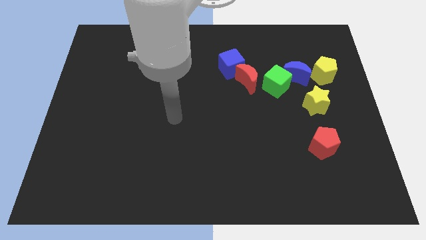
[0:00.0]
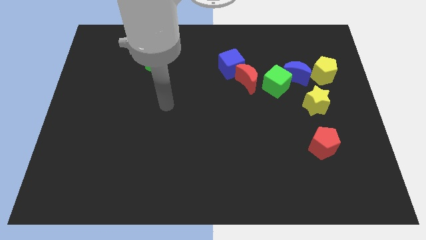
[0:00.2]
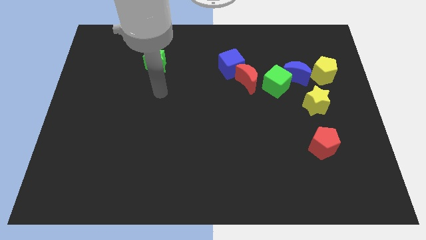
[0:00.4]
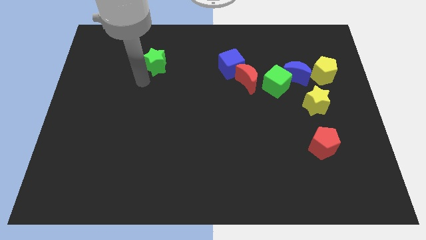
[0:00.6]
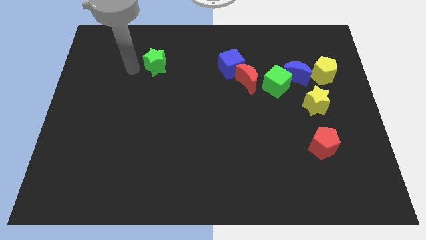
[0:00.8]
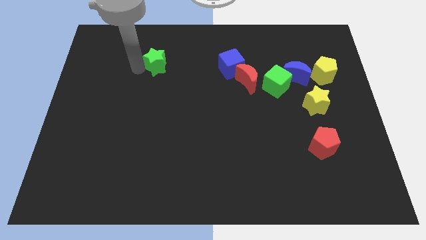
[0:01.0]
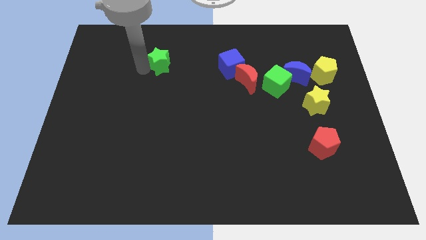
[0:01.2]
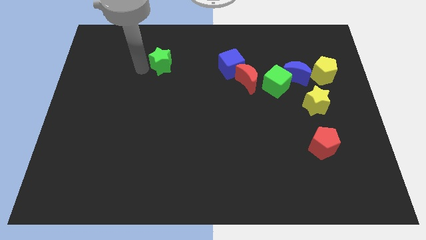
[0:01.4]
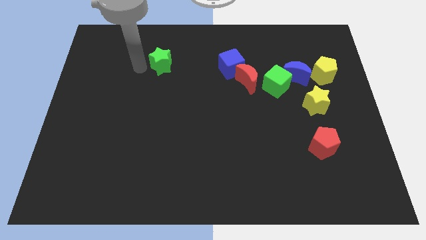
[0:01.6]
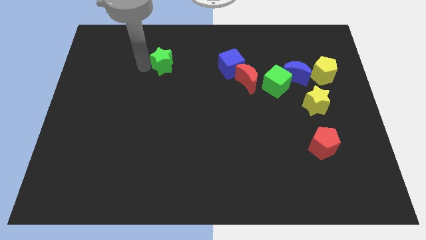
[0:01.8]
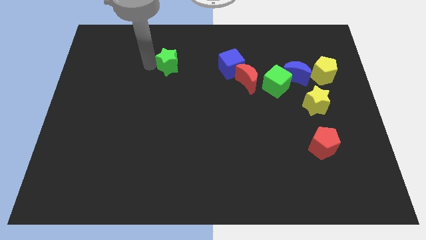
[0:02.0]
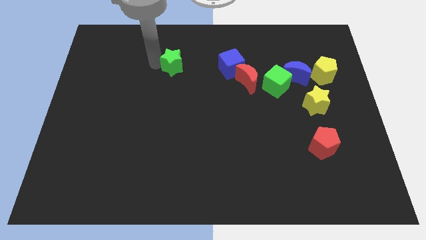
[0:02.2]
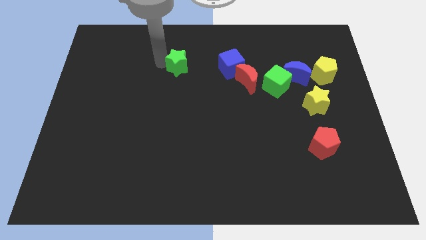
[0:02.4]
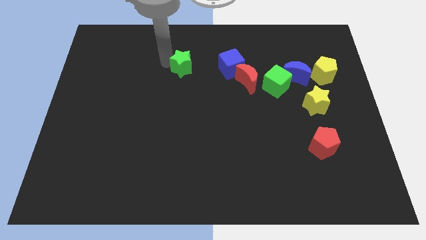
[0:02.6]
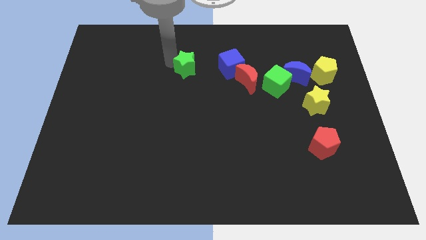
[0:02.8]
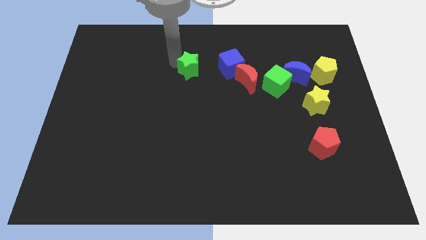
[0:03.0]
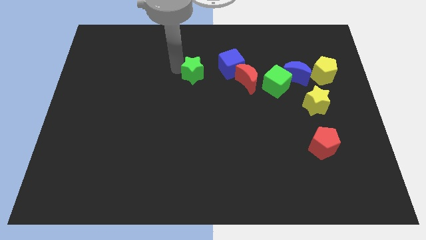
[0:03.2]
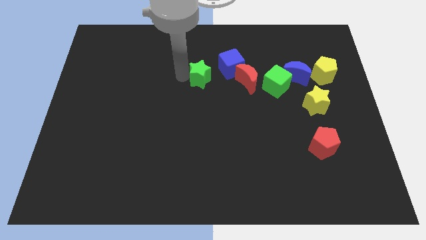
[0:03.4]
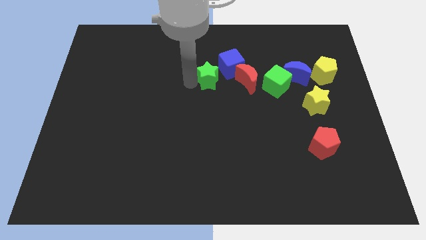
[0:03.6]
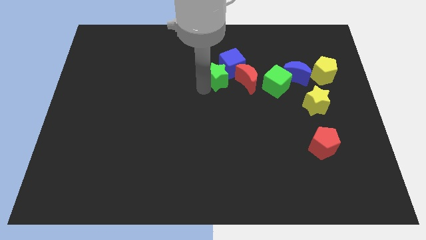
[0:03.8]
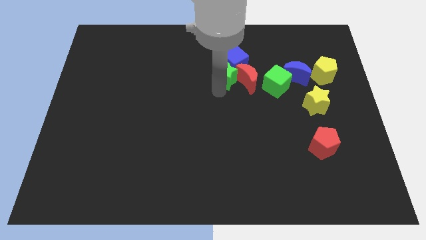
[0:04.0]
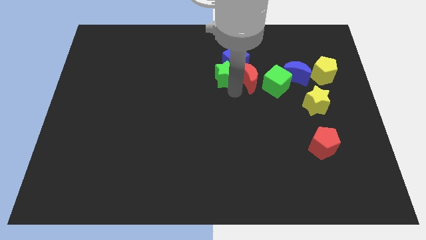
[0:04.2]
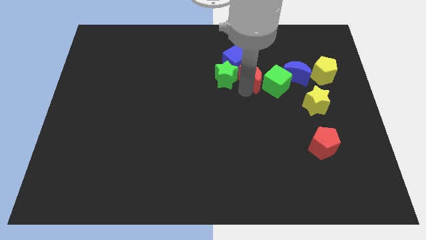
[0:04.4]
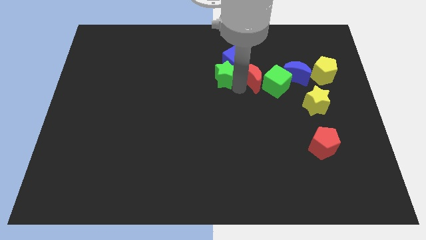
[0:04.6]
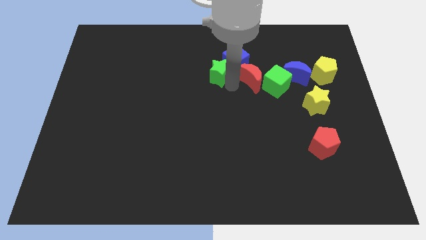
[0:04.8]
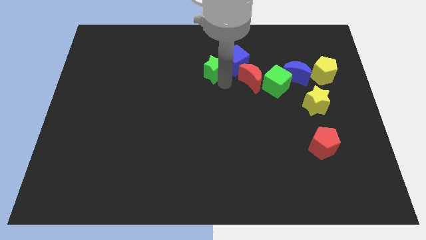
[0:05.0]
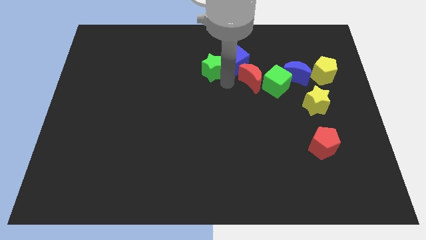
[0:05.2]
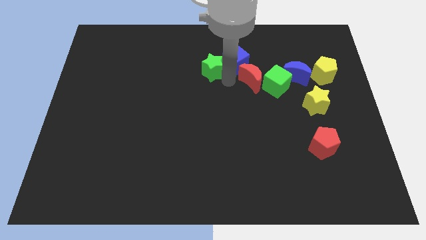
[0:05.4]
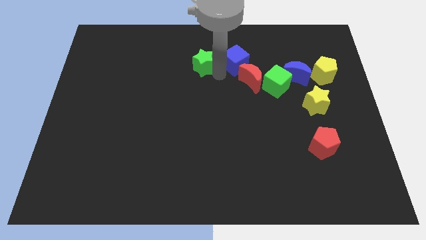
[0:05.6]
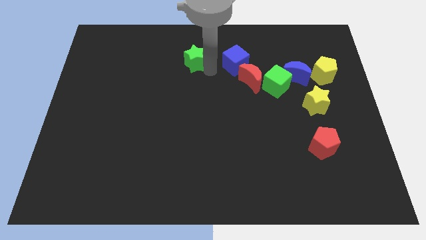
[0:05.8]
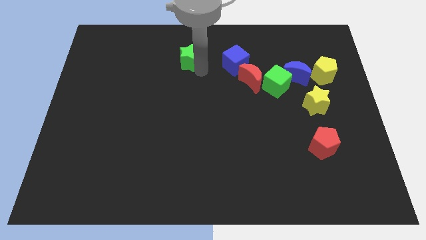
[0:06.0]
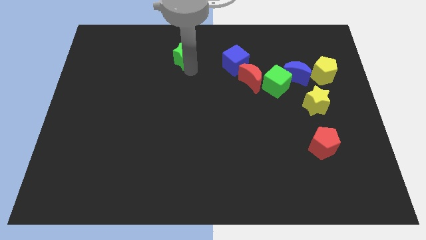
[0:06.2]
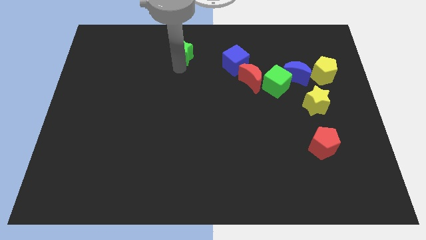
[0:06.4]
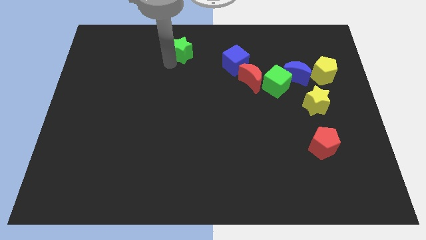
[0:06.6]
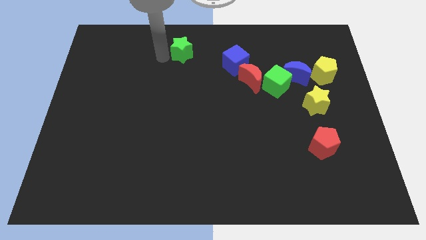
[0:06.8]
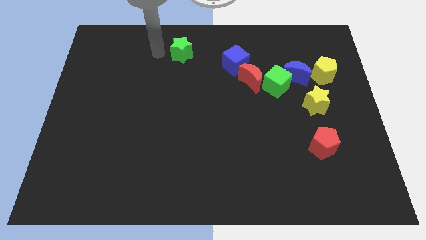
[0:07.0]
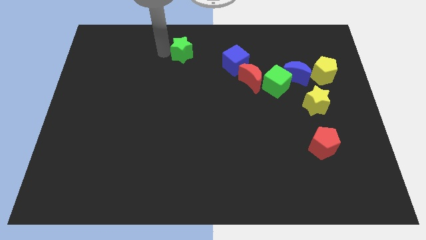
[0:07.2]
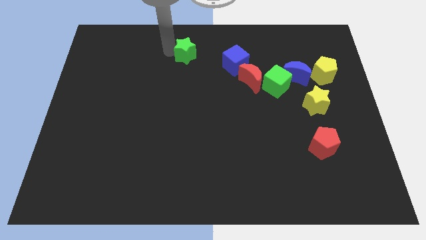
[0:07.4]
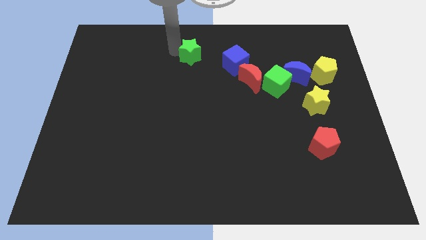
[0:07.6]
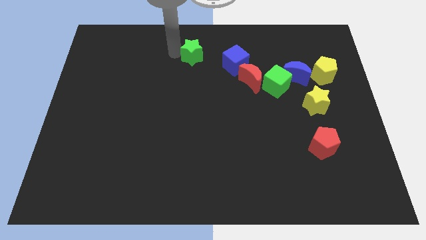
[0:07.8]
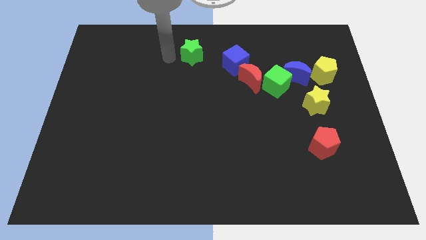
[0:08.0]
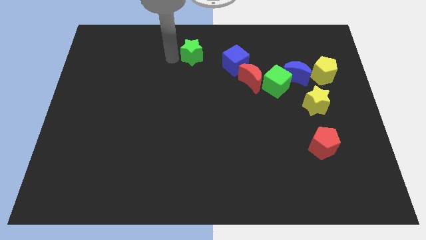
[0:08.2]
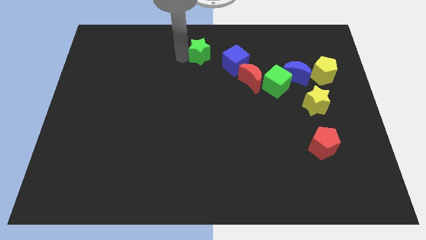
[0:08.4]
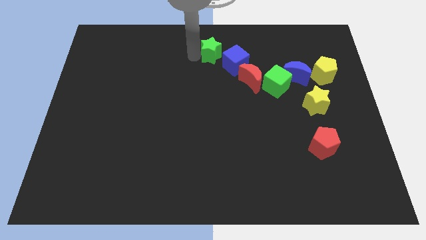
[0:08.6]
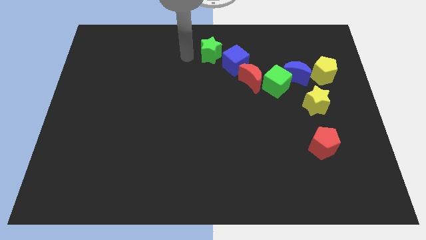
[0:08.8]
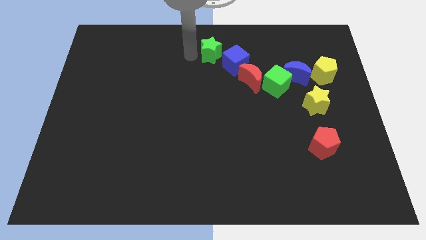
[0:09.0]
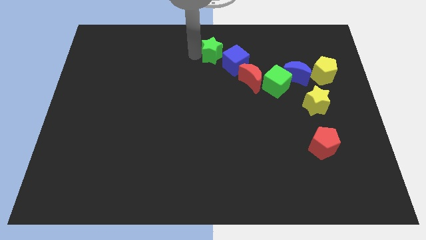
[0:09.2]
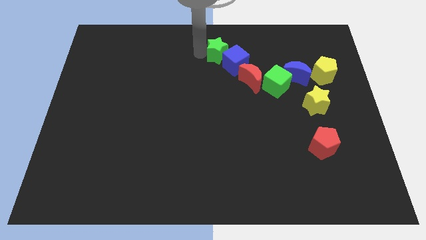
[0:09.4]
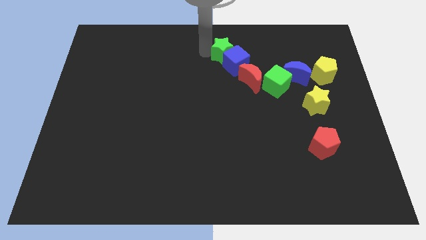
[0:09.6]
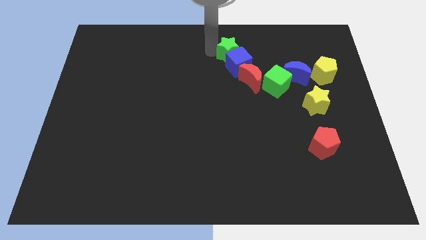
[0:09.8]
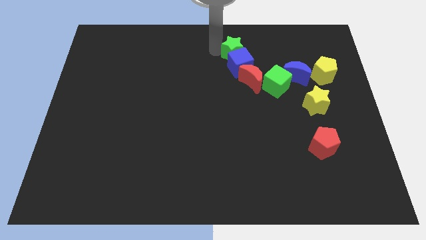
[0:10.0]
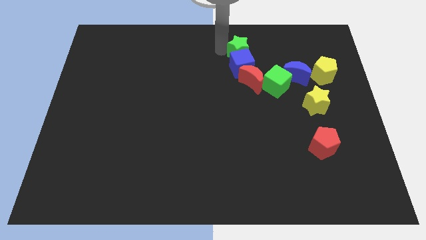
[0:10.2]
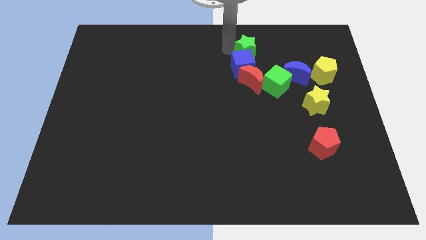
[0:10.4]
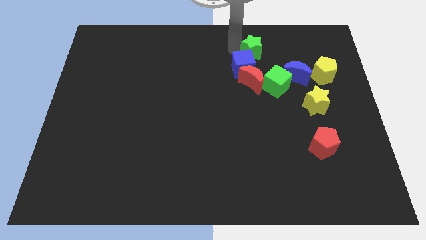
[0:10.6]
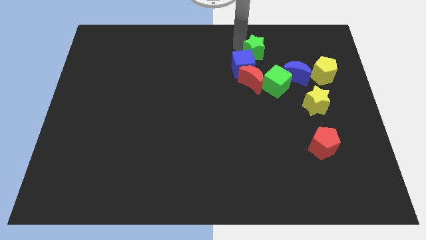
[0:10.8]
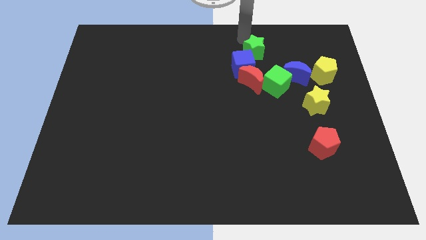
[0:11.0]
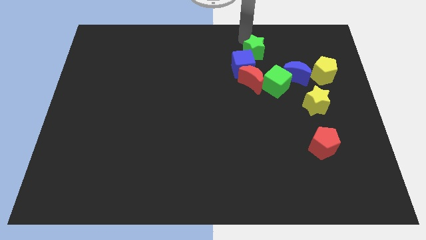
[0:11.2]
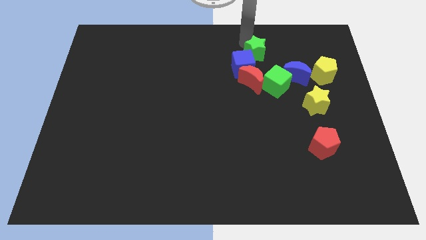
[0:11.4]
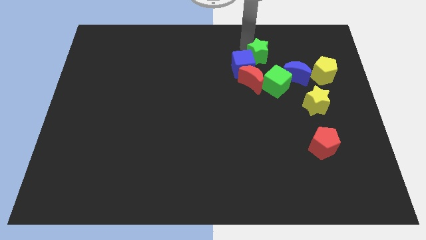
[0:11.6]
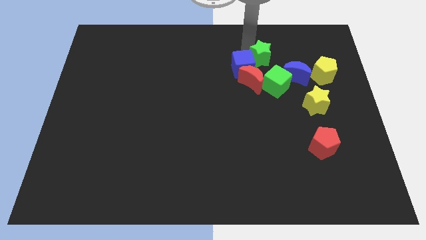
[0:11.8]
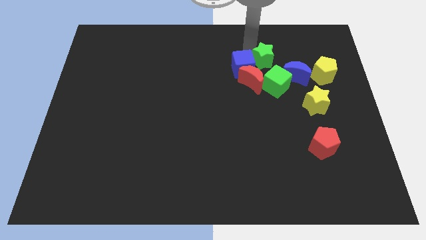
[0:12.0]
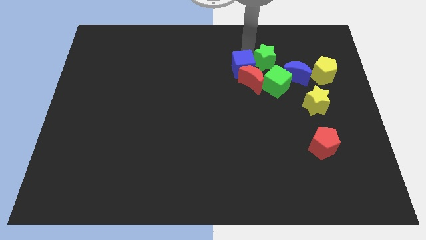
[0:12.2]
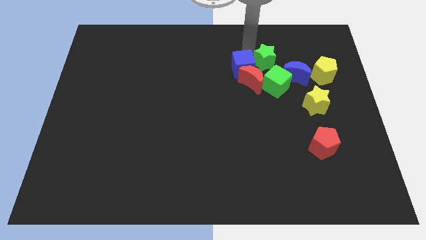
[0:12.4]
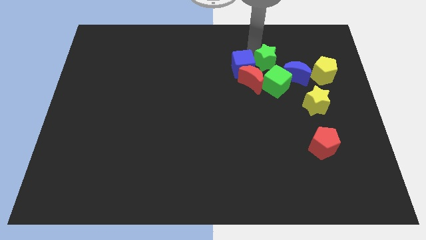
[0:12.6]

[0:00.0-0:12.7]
slide the green star to the left of the yellow pentagon

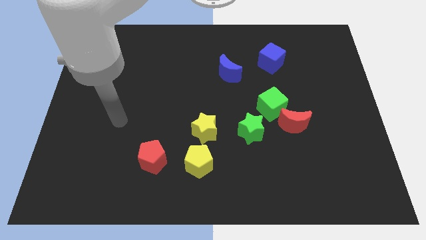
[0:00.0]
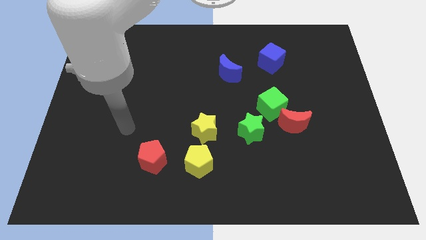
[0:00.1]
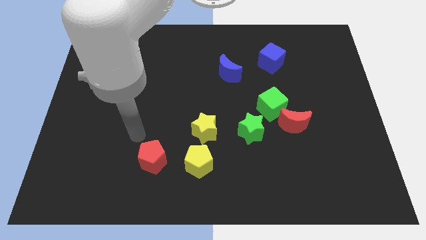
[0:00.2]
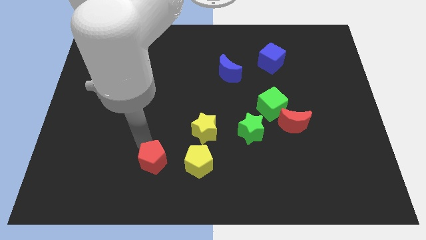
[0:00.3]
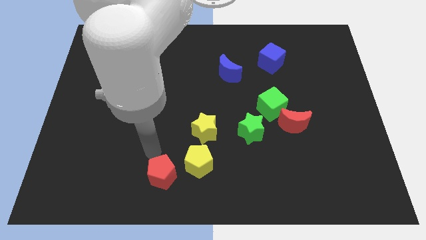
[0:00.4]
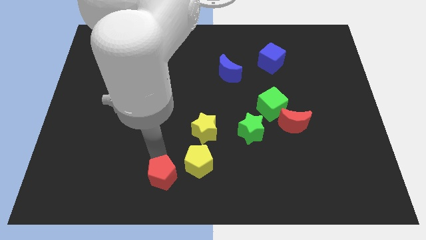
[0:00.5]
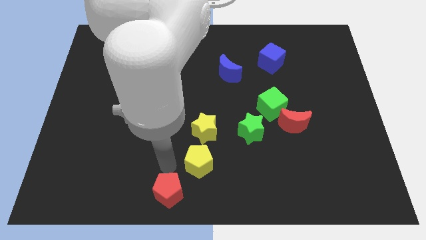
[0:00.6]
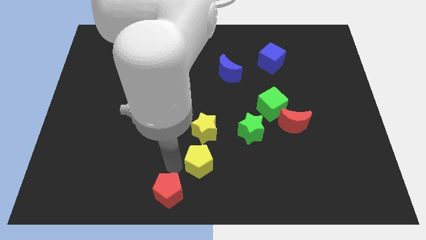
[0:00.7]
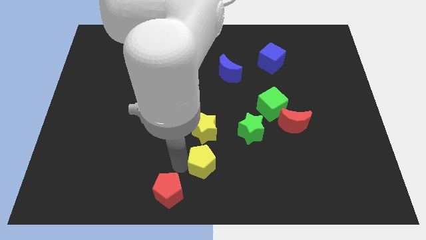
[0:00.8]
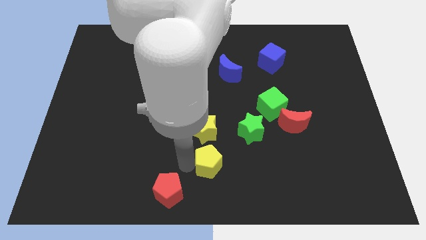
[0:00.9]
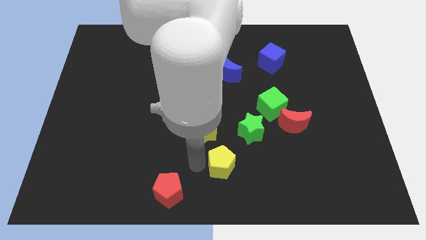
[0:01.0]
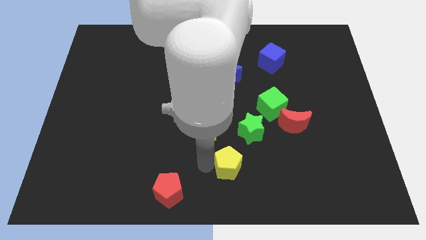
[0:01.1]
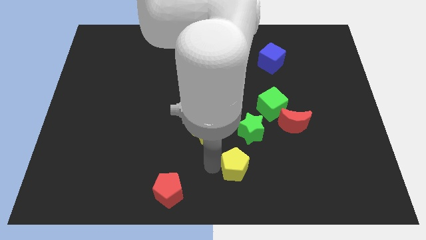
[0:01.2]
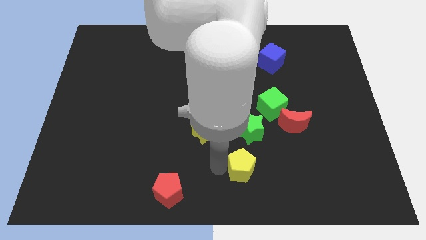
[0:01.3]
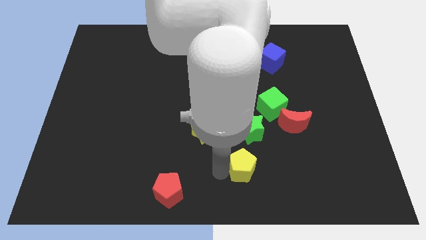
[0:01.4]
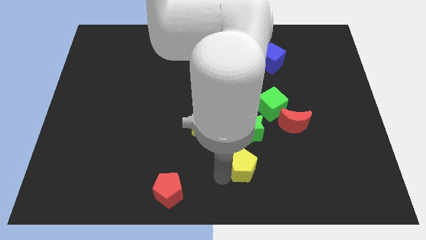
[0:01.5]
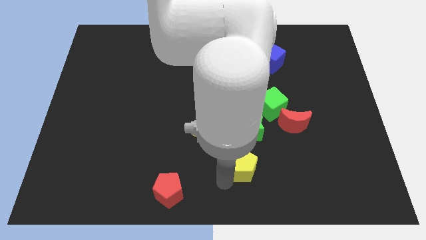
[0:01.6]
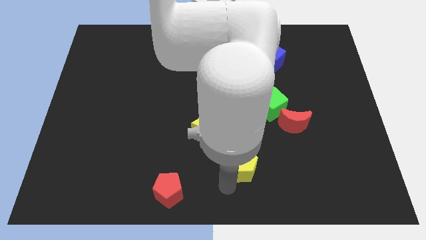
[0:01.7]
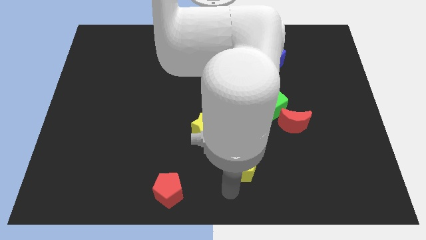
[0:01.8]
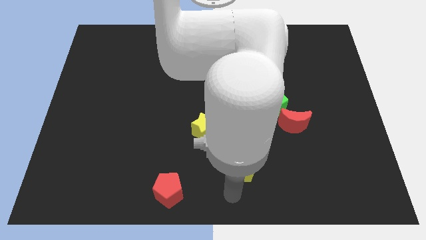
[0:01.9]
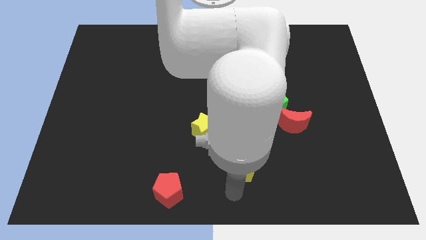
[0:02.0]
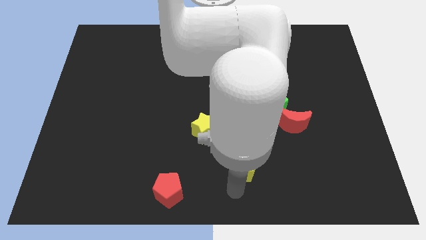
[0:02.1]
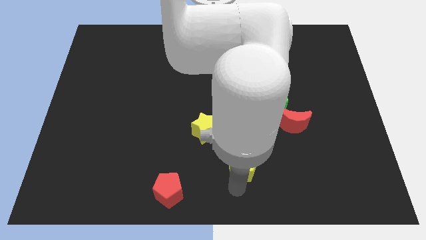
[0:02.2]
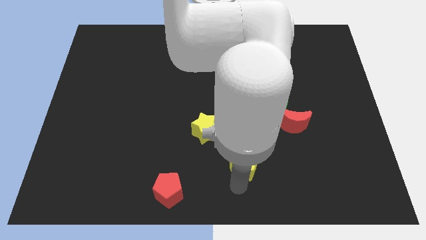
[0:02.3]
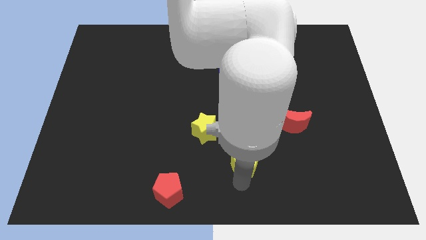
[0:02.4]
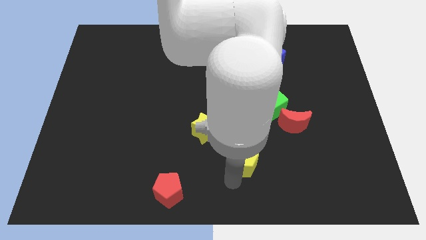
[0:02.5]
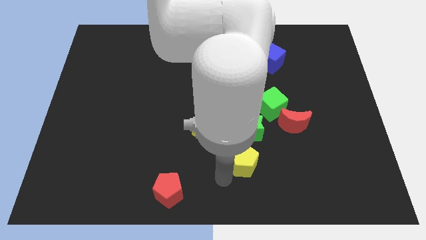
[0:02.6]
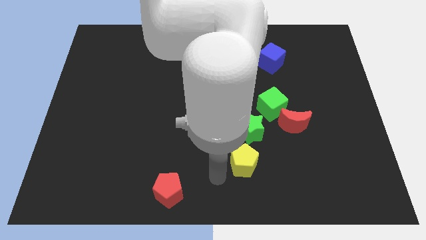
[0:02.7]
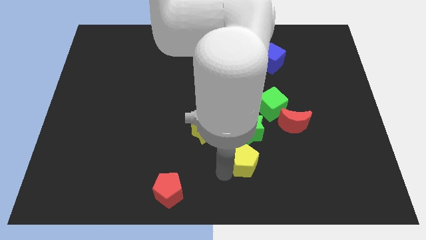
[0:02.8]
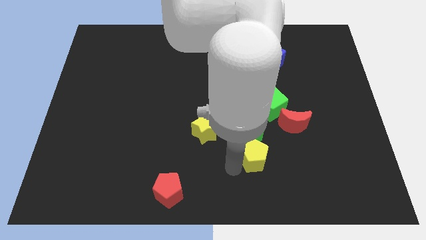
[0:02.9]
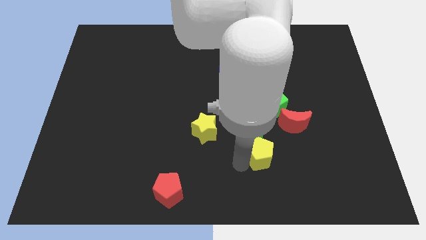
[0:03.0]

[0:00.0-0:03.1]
push the yellow pentagon to the bottom of the green cube
